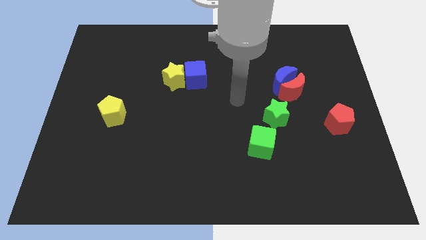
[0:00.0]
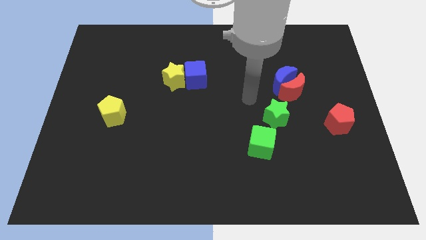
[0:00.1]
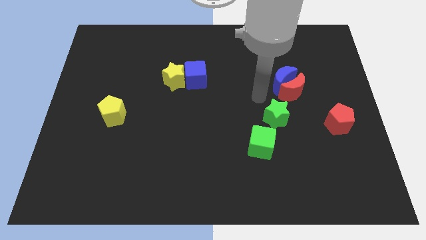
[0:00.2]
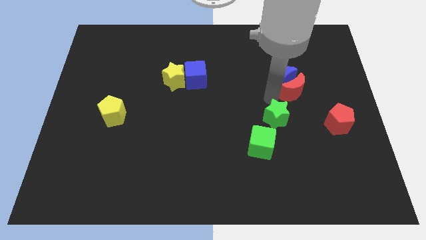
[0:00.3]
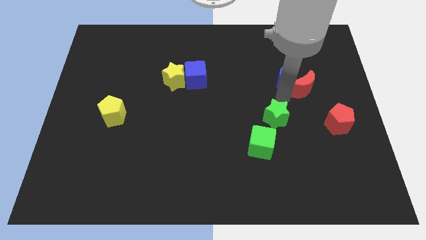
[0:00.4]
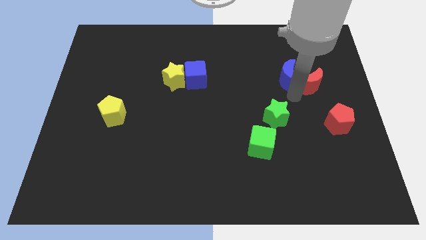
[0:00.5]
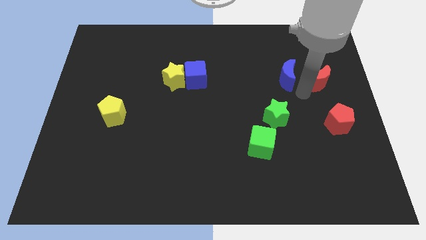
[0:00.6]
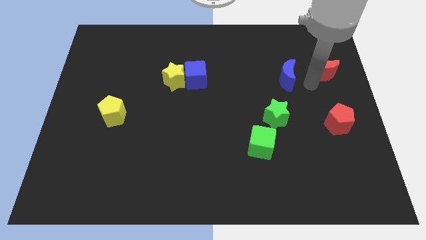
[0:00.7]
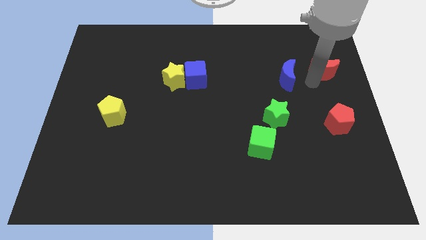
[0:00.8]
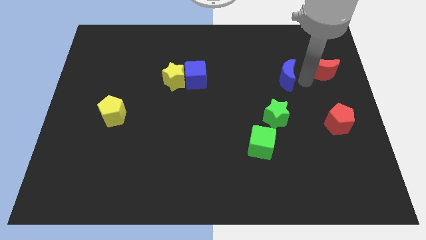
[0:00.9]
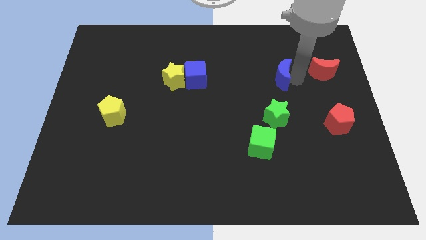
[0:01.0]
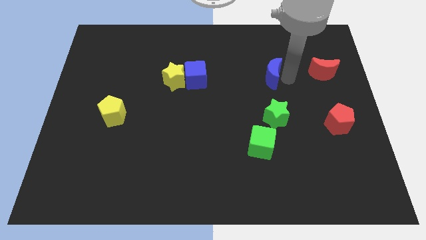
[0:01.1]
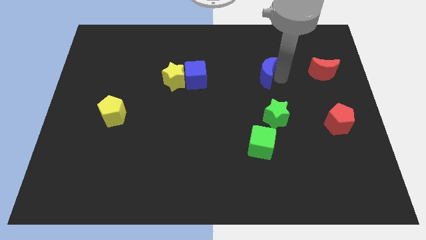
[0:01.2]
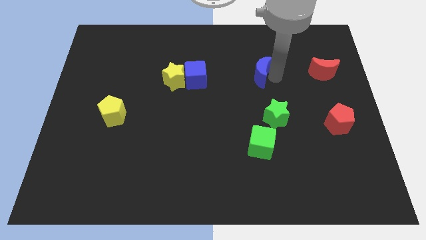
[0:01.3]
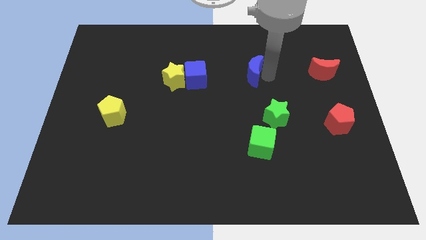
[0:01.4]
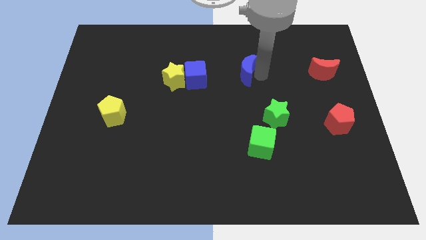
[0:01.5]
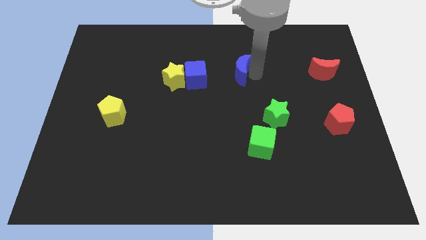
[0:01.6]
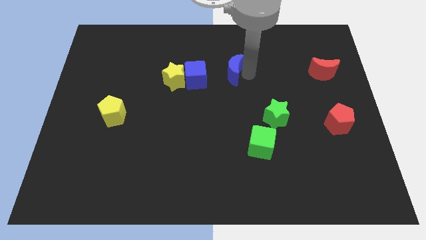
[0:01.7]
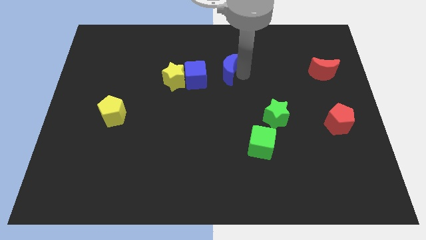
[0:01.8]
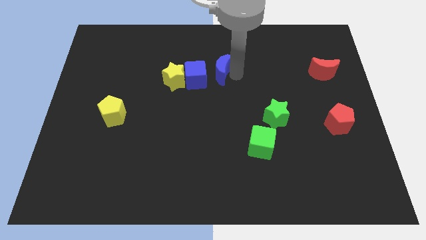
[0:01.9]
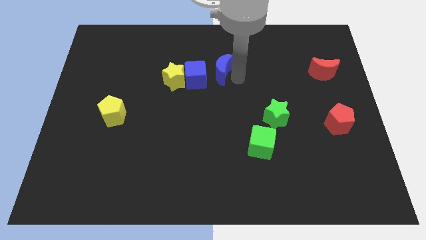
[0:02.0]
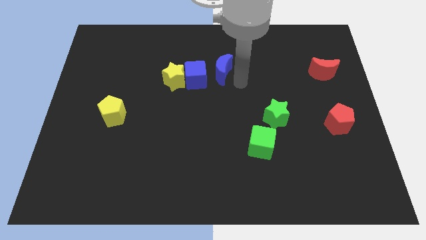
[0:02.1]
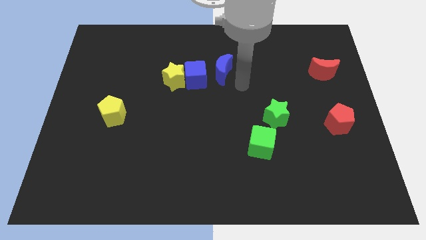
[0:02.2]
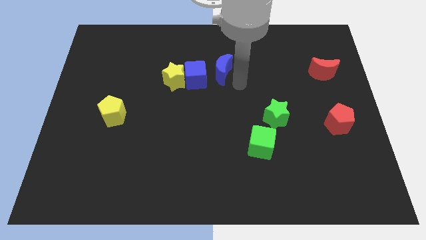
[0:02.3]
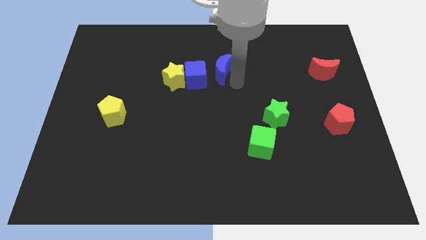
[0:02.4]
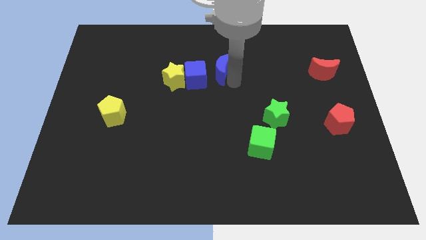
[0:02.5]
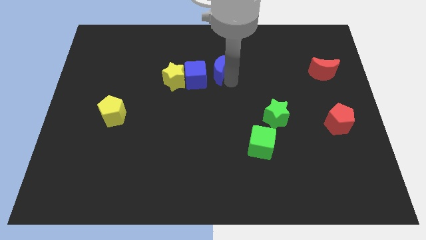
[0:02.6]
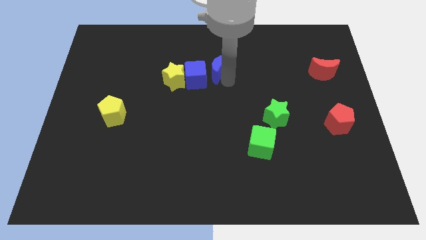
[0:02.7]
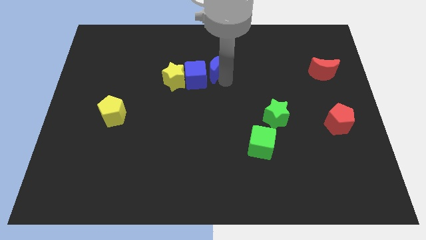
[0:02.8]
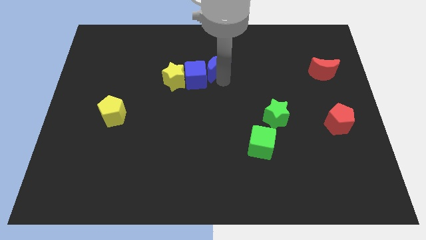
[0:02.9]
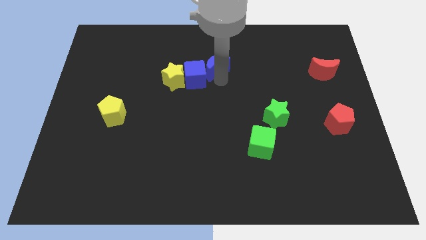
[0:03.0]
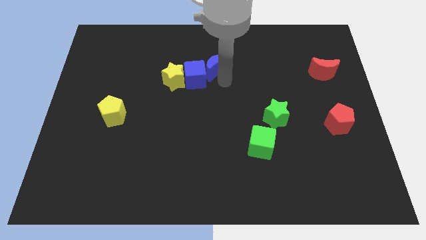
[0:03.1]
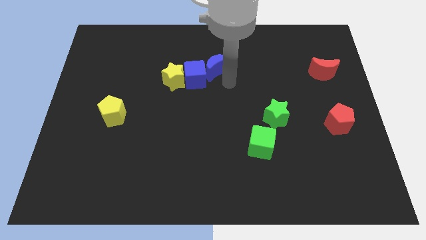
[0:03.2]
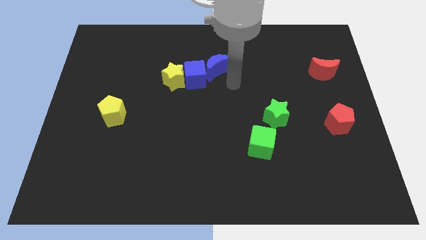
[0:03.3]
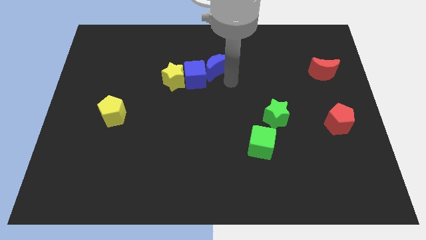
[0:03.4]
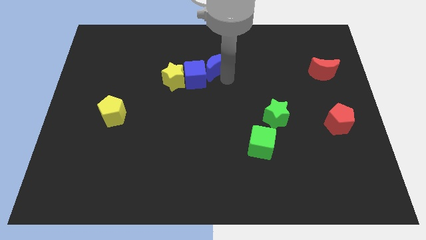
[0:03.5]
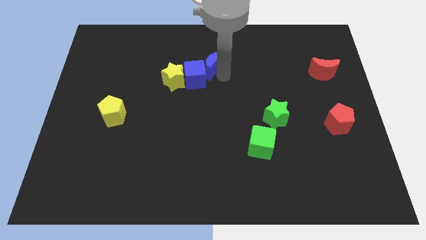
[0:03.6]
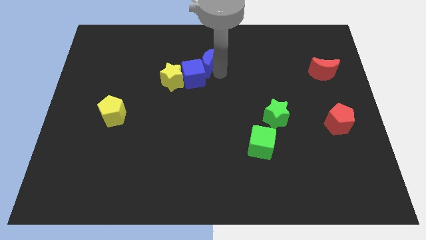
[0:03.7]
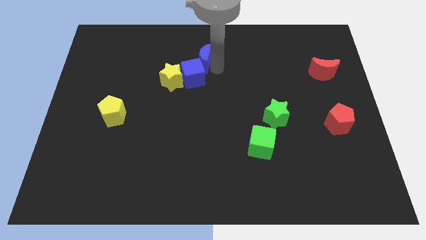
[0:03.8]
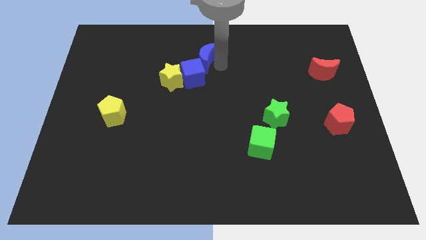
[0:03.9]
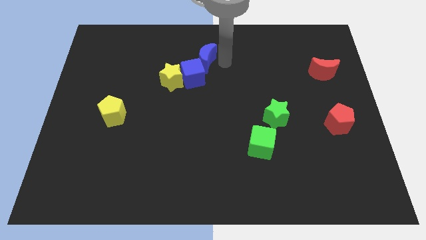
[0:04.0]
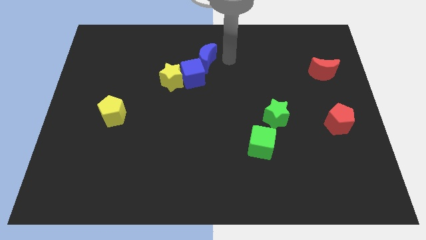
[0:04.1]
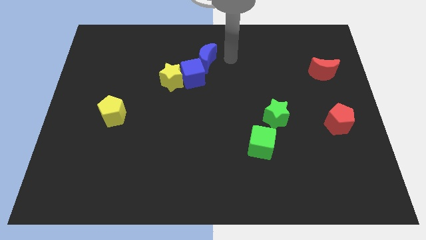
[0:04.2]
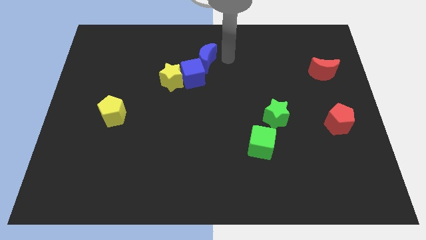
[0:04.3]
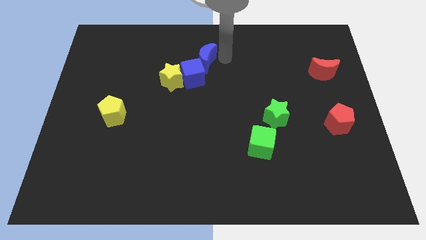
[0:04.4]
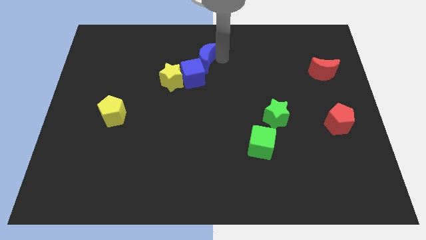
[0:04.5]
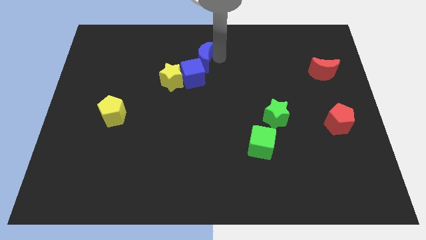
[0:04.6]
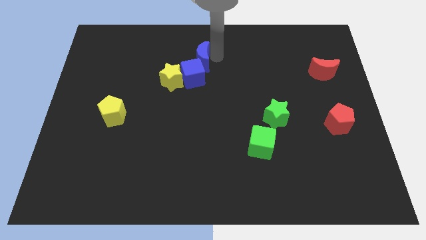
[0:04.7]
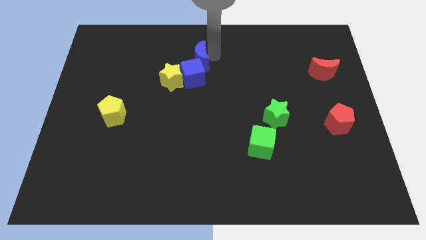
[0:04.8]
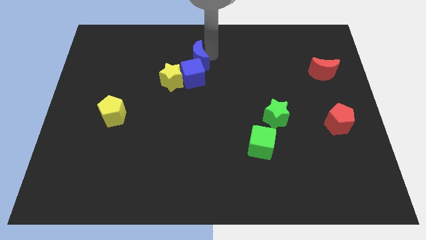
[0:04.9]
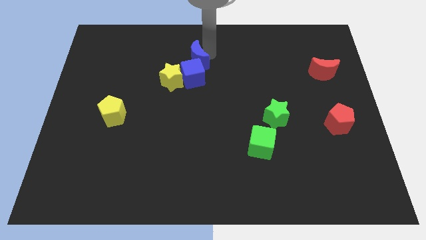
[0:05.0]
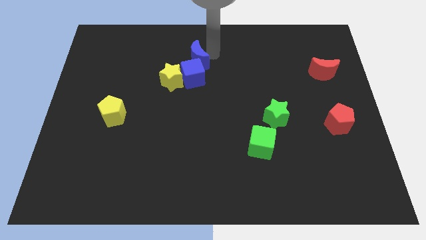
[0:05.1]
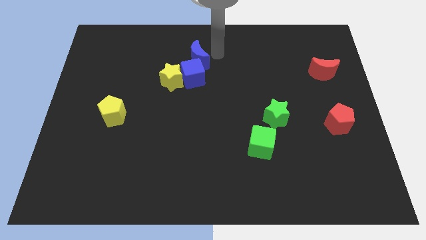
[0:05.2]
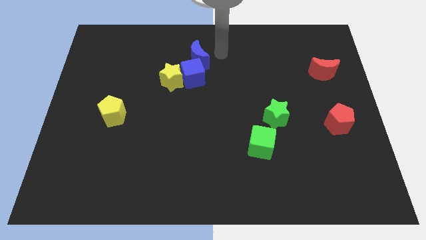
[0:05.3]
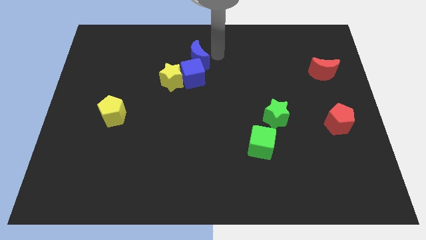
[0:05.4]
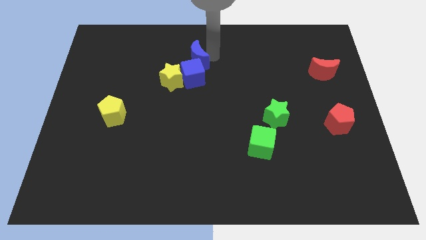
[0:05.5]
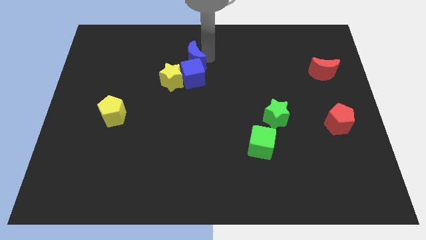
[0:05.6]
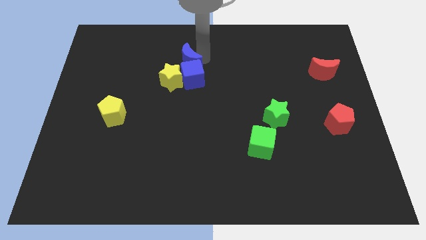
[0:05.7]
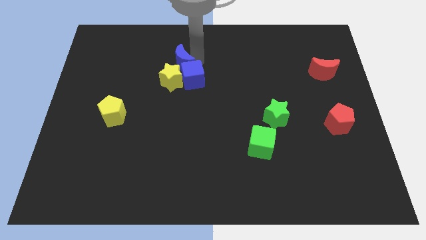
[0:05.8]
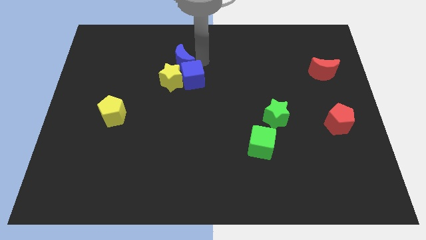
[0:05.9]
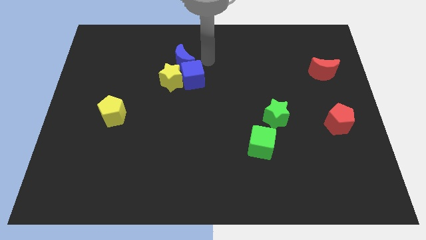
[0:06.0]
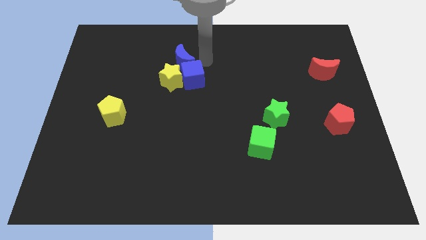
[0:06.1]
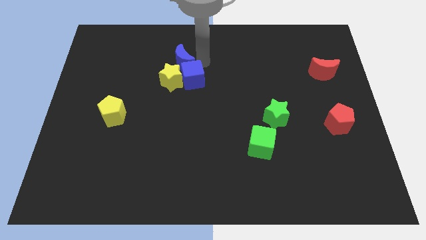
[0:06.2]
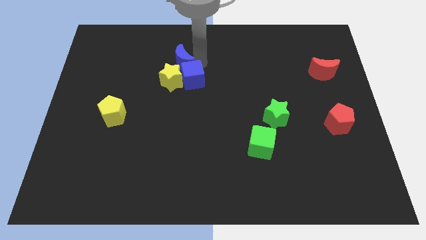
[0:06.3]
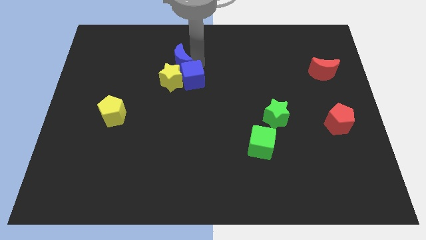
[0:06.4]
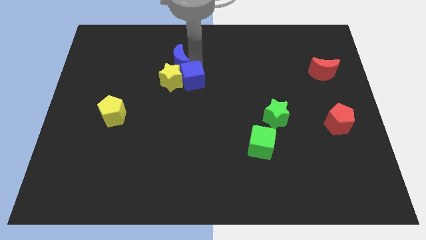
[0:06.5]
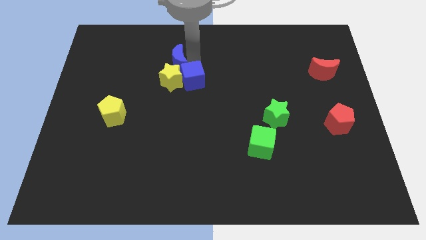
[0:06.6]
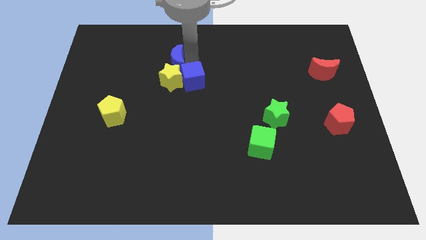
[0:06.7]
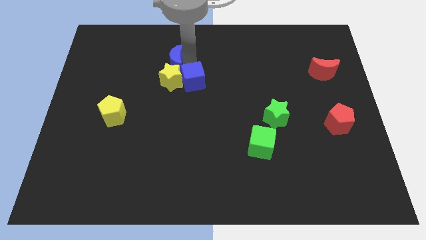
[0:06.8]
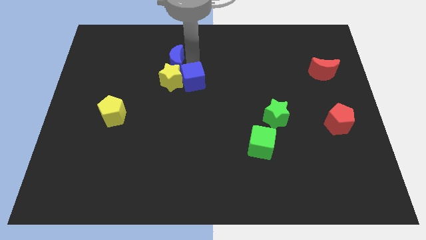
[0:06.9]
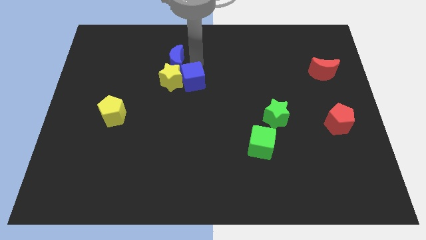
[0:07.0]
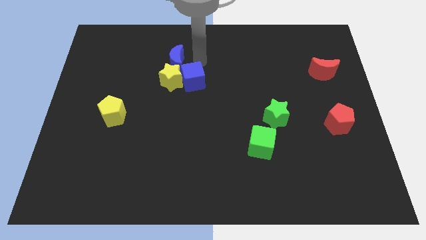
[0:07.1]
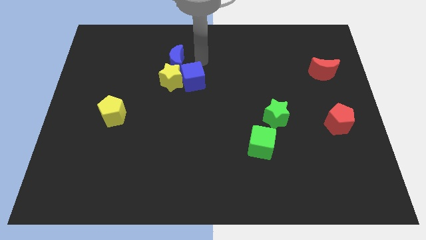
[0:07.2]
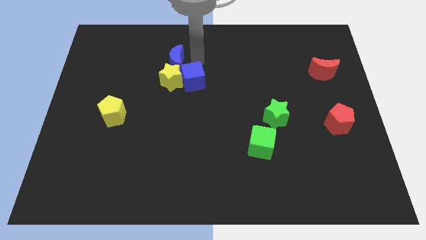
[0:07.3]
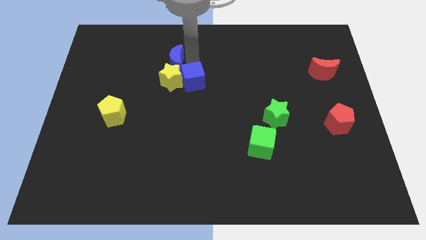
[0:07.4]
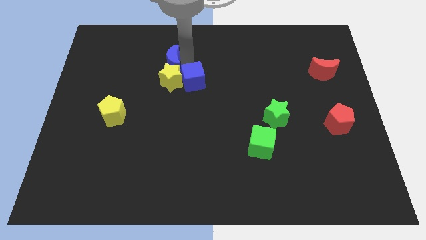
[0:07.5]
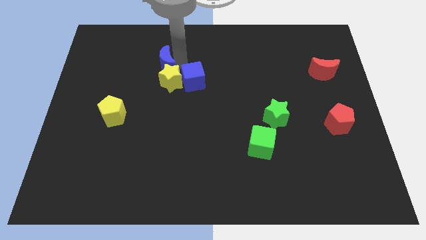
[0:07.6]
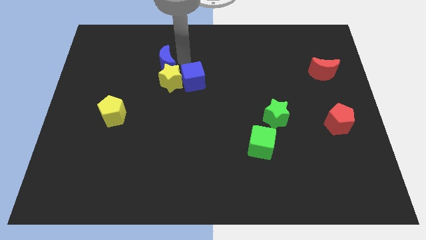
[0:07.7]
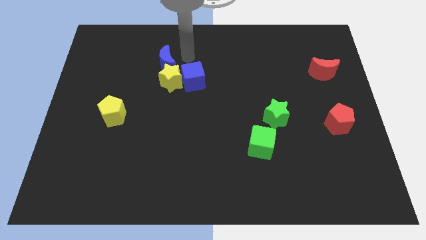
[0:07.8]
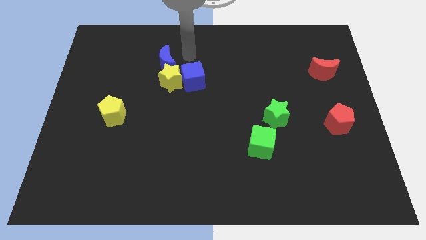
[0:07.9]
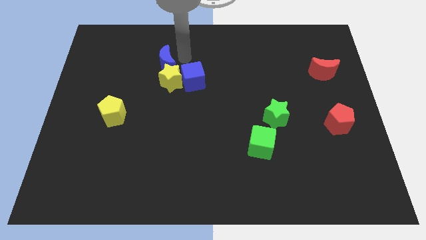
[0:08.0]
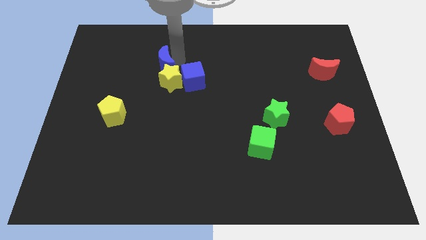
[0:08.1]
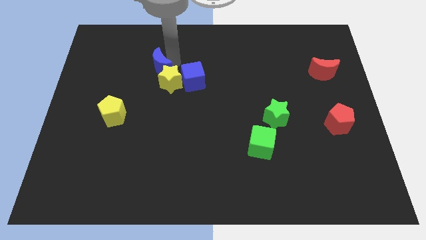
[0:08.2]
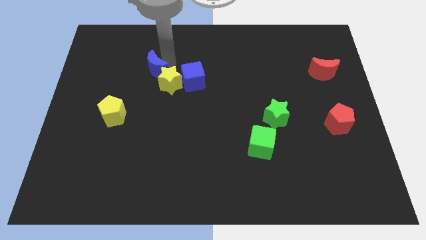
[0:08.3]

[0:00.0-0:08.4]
put the blue moon to the left side of the yellow star
